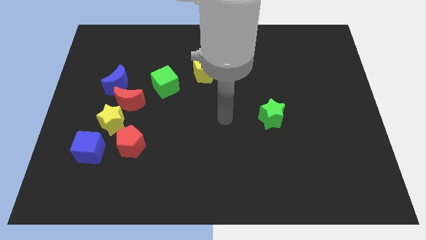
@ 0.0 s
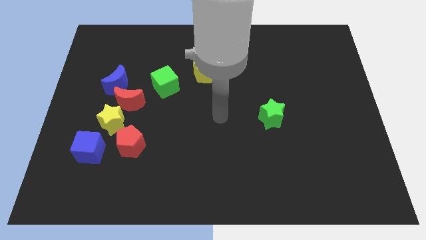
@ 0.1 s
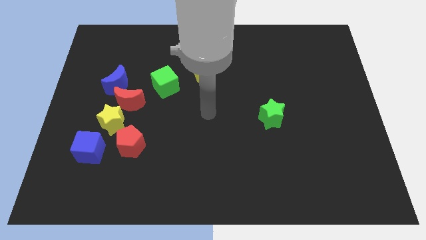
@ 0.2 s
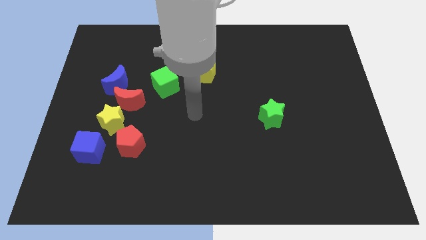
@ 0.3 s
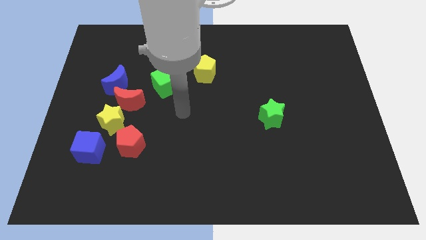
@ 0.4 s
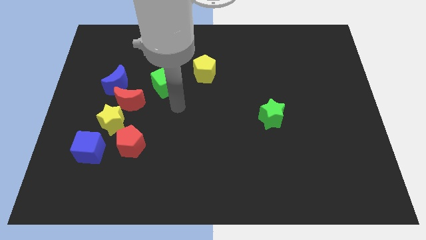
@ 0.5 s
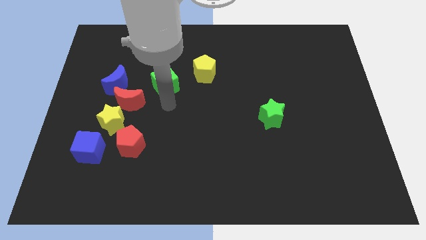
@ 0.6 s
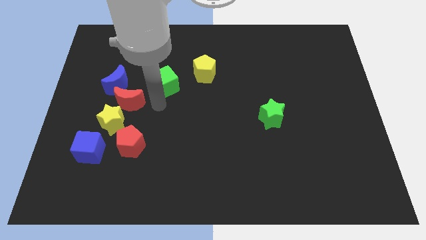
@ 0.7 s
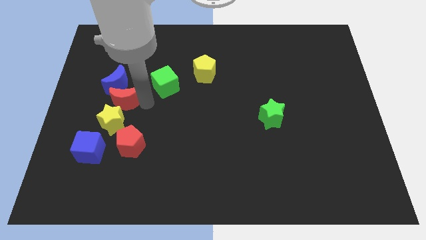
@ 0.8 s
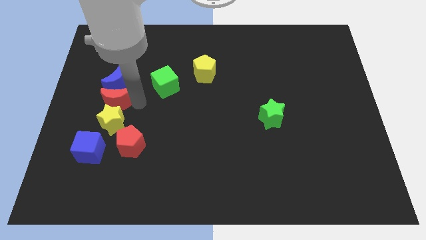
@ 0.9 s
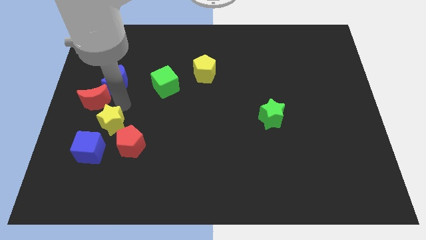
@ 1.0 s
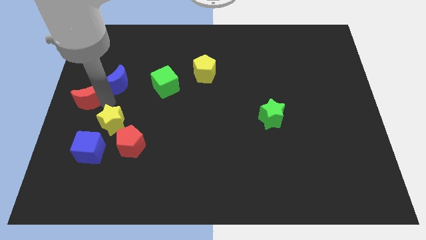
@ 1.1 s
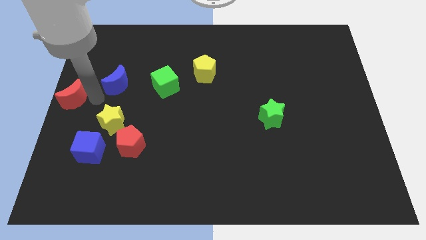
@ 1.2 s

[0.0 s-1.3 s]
move the blue moon away from the red moon

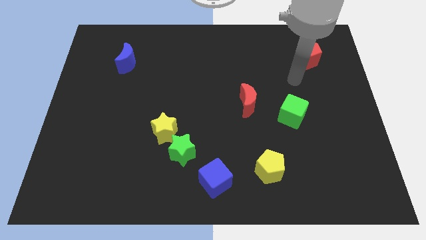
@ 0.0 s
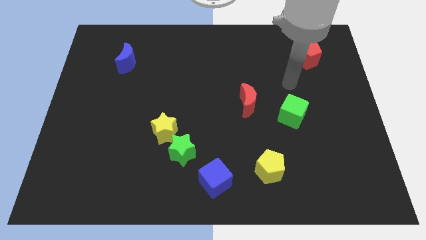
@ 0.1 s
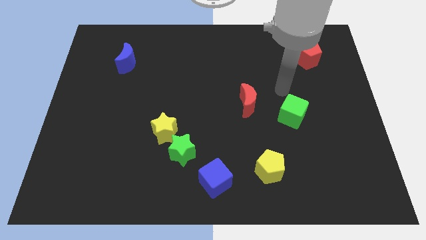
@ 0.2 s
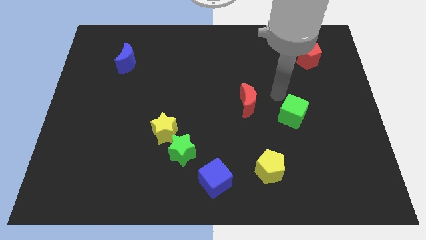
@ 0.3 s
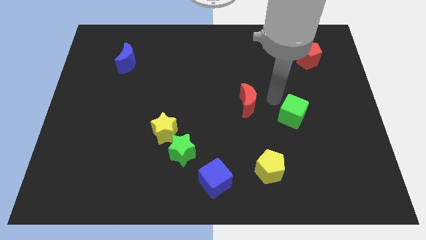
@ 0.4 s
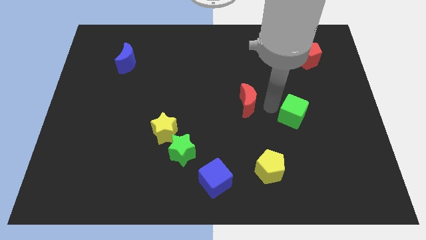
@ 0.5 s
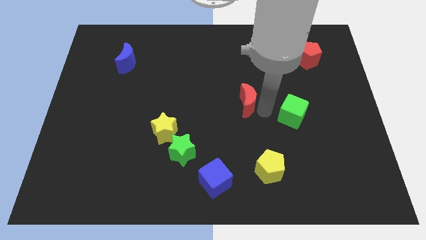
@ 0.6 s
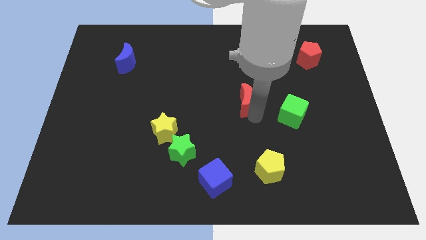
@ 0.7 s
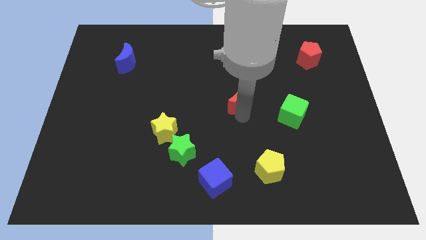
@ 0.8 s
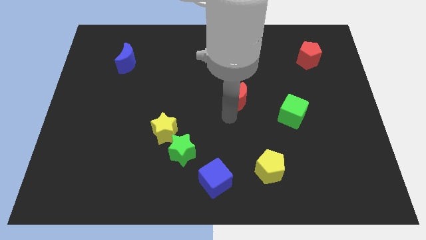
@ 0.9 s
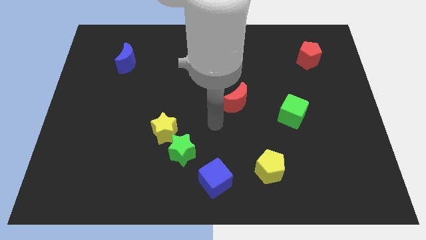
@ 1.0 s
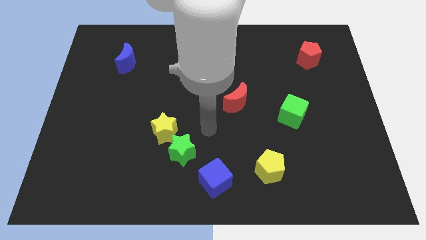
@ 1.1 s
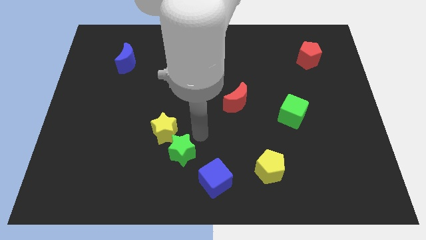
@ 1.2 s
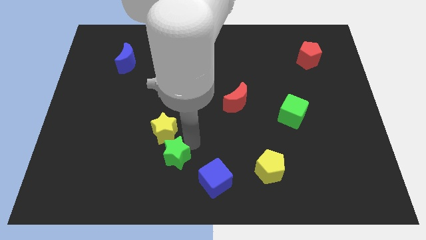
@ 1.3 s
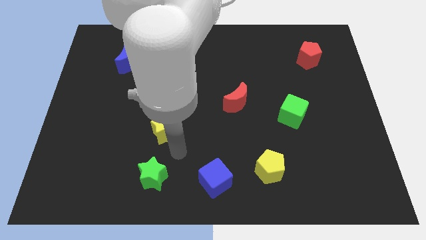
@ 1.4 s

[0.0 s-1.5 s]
pull the yellow star apart from the green star

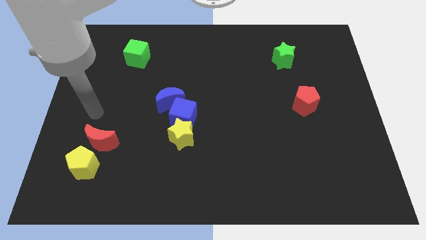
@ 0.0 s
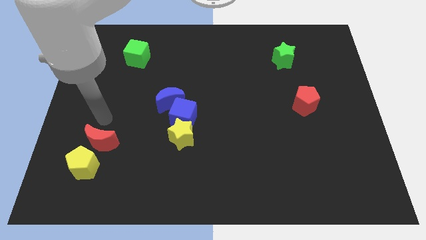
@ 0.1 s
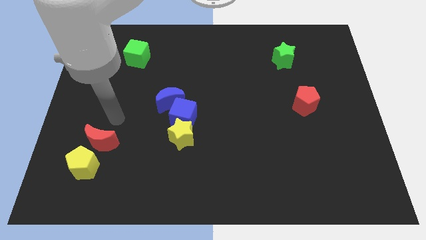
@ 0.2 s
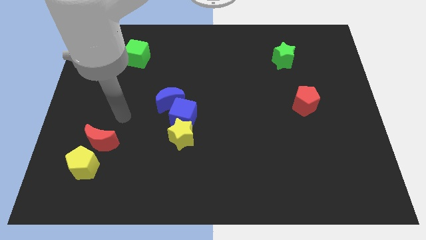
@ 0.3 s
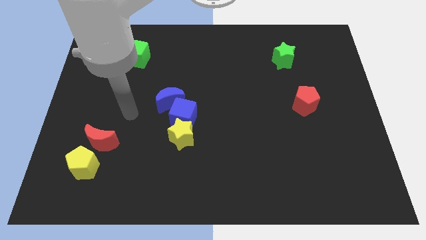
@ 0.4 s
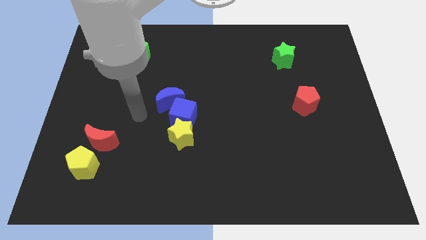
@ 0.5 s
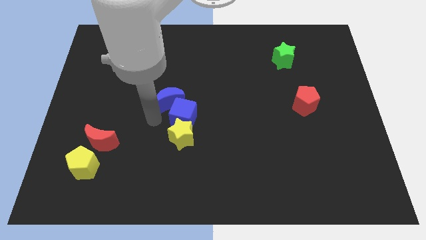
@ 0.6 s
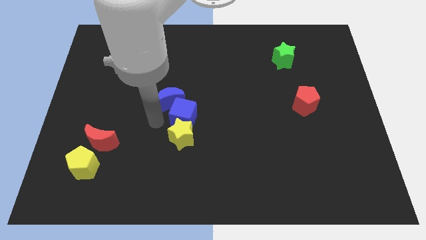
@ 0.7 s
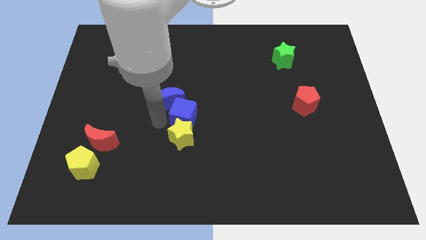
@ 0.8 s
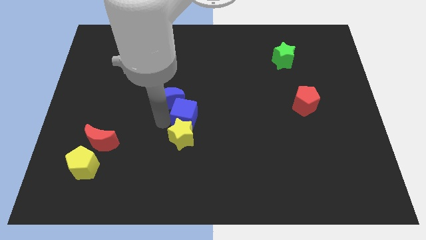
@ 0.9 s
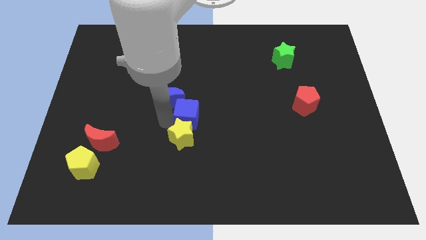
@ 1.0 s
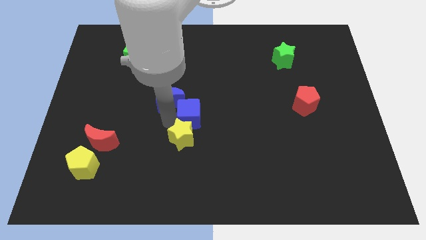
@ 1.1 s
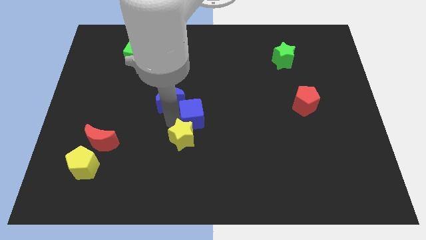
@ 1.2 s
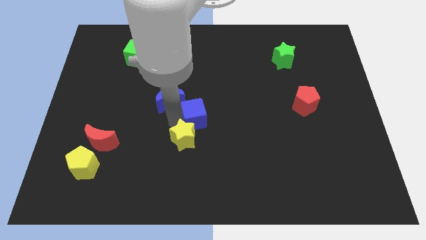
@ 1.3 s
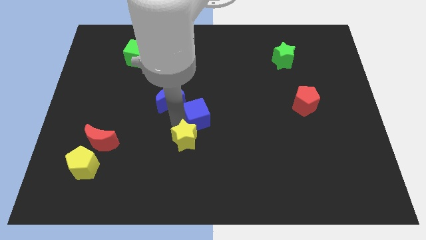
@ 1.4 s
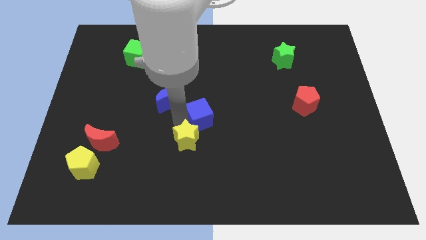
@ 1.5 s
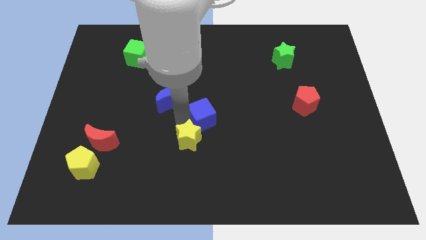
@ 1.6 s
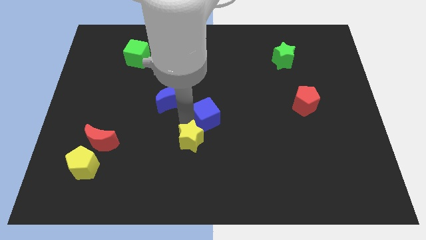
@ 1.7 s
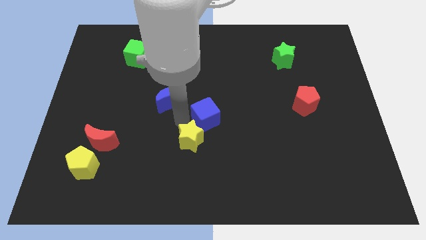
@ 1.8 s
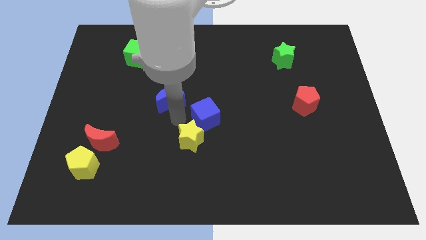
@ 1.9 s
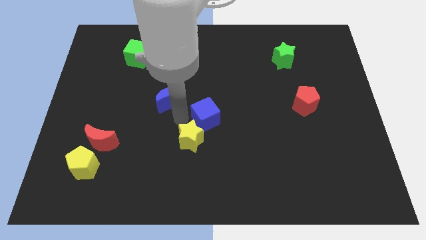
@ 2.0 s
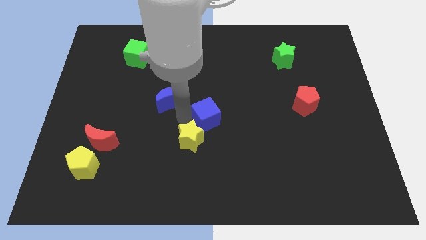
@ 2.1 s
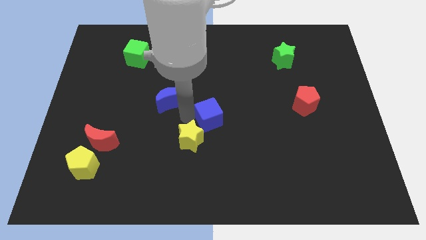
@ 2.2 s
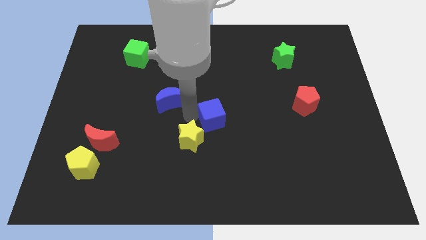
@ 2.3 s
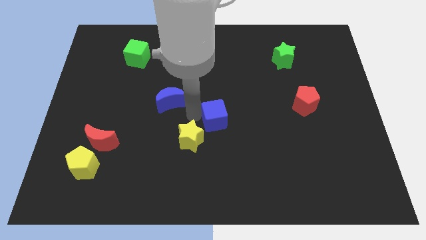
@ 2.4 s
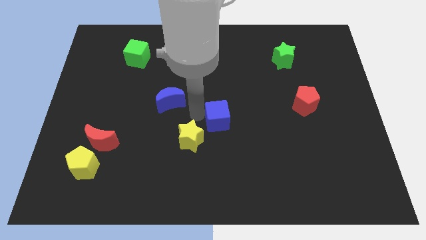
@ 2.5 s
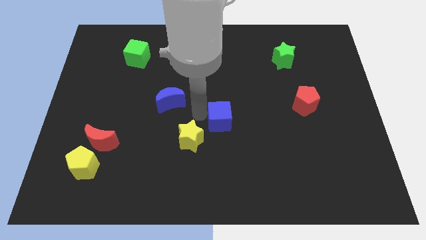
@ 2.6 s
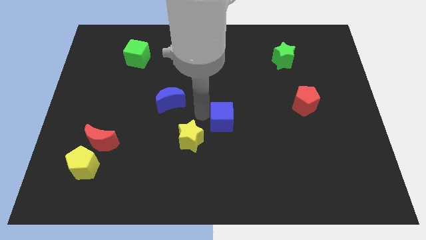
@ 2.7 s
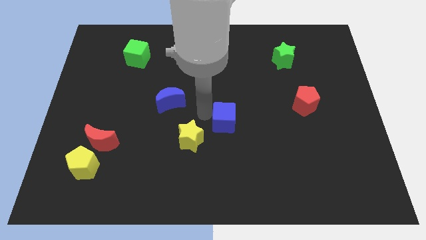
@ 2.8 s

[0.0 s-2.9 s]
separate the blue cube from the yellow star and blue moon

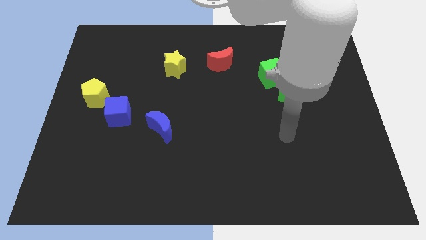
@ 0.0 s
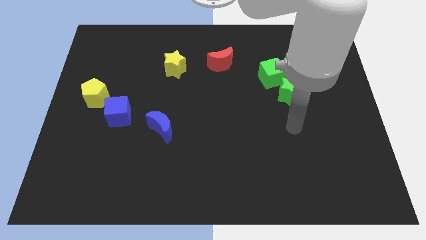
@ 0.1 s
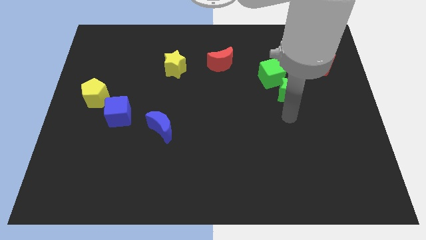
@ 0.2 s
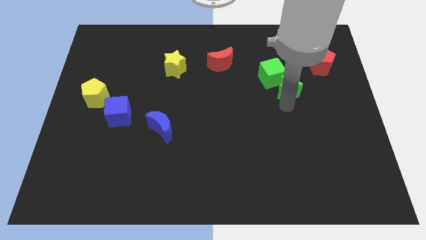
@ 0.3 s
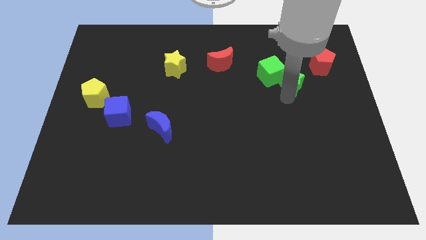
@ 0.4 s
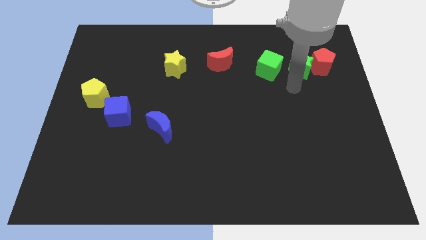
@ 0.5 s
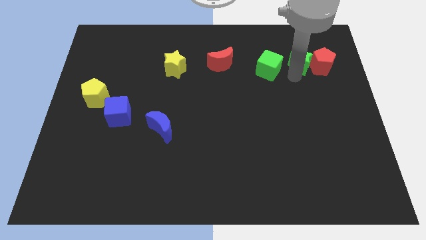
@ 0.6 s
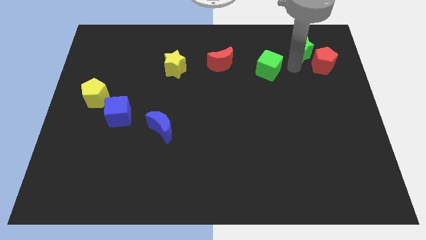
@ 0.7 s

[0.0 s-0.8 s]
pull the green cube apart from the green star

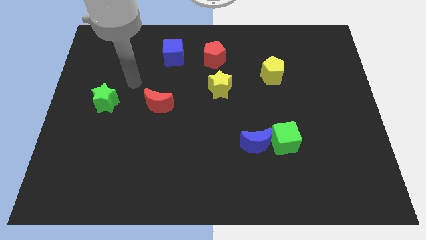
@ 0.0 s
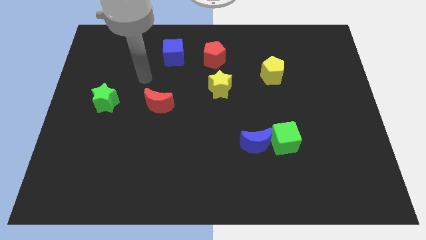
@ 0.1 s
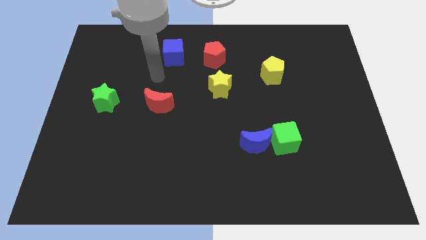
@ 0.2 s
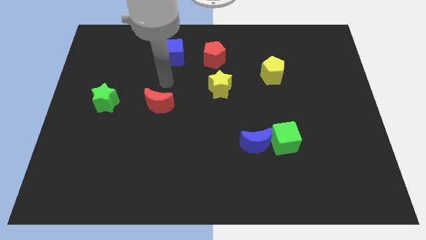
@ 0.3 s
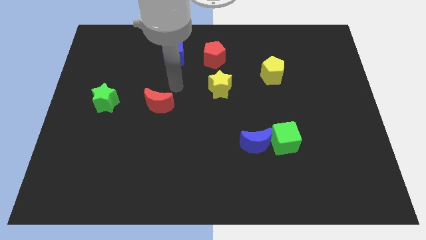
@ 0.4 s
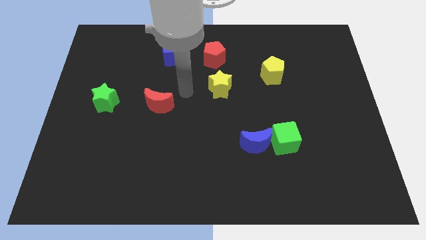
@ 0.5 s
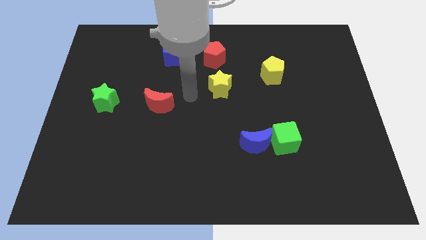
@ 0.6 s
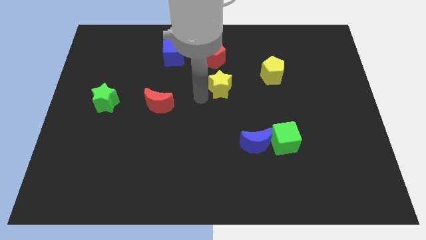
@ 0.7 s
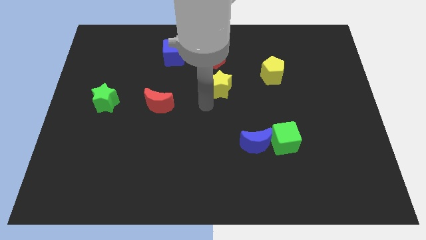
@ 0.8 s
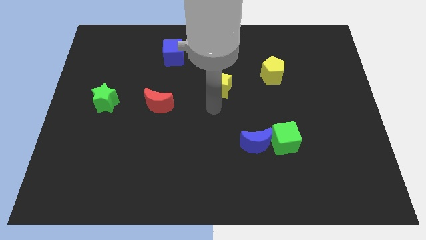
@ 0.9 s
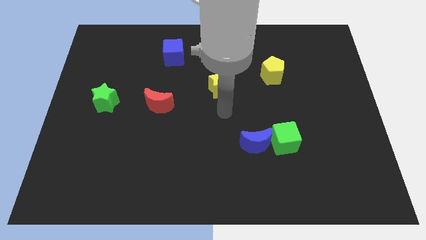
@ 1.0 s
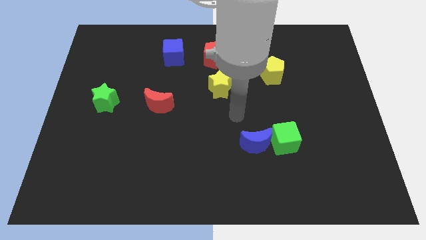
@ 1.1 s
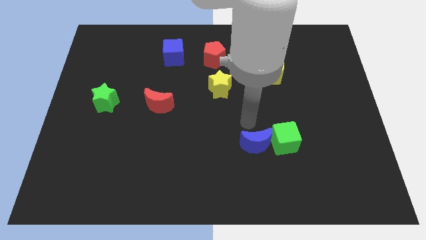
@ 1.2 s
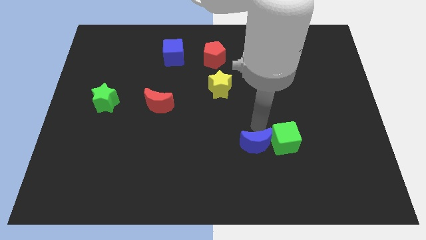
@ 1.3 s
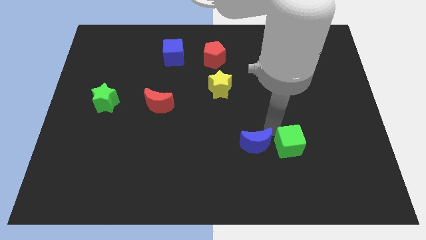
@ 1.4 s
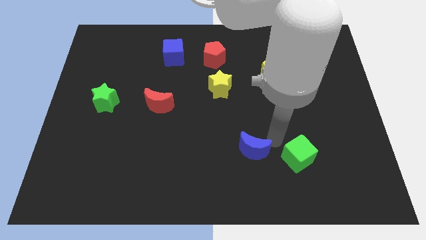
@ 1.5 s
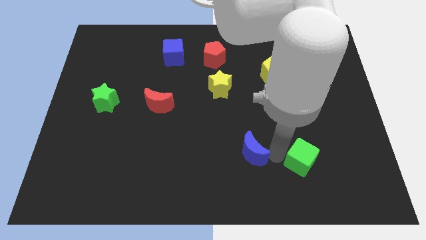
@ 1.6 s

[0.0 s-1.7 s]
move the blue moon away from the green cube

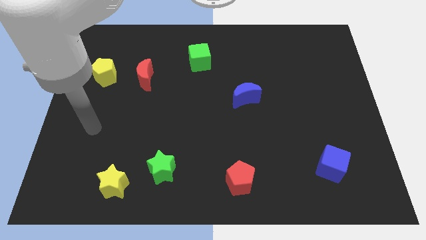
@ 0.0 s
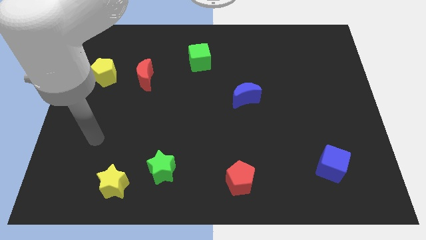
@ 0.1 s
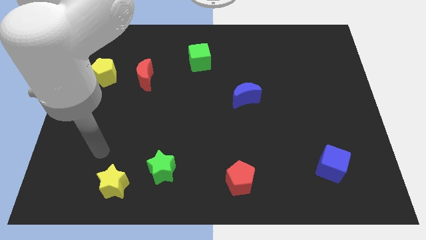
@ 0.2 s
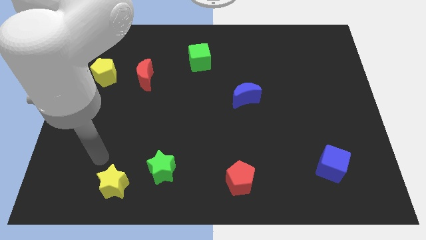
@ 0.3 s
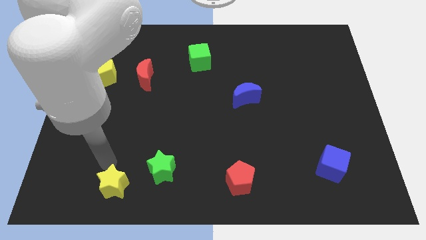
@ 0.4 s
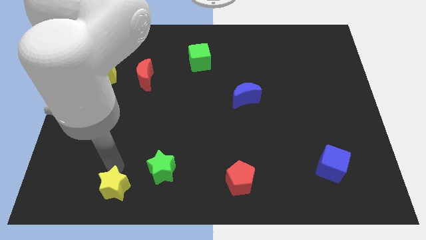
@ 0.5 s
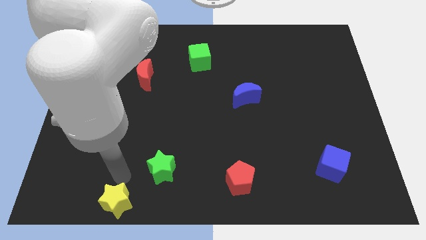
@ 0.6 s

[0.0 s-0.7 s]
separate the green star from the yellow star

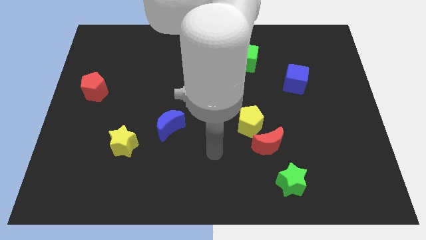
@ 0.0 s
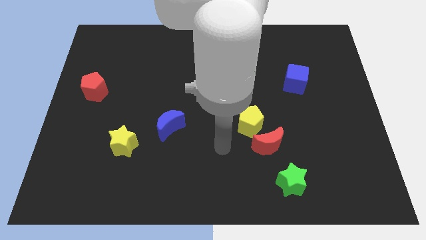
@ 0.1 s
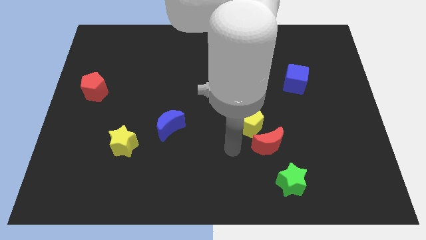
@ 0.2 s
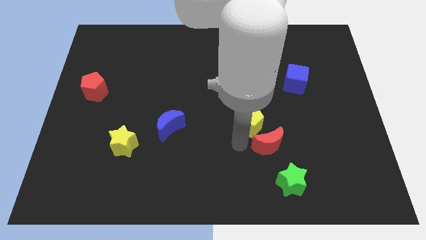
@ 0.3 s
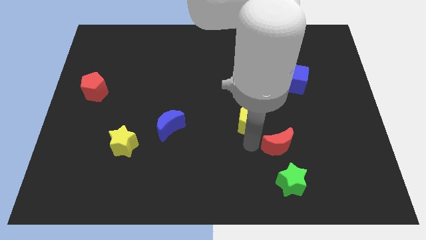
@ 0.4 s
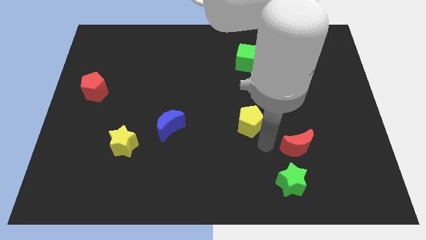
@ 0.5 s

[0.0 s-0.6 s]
move the yellow pentagon away from the red moon
